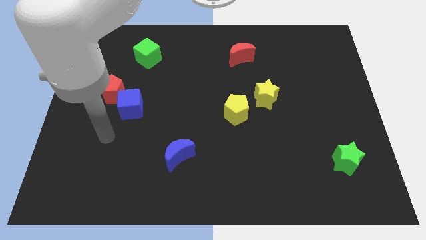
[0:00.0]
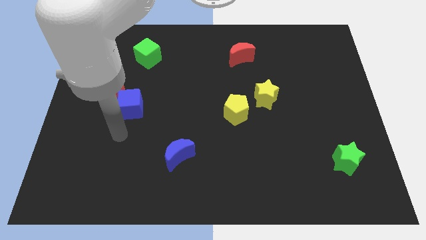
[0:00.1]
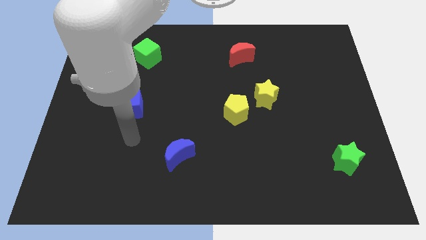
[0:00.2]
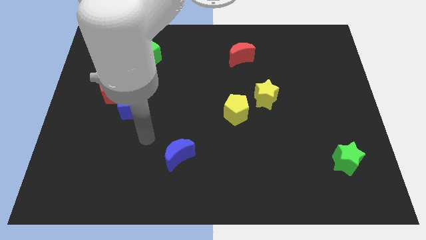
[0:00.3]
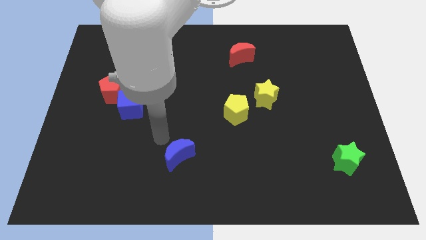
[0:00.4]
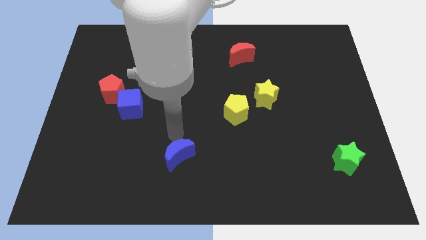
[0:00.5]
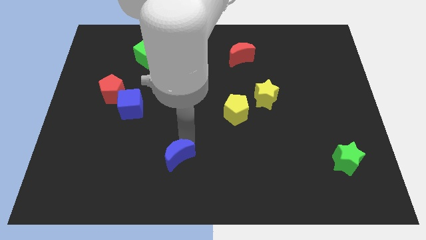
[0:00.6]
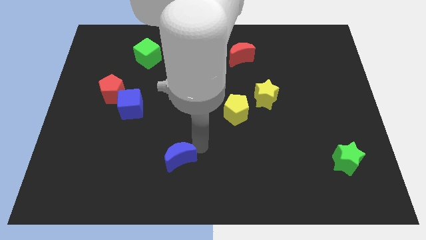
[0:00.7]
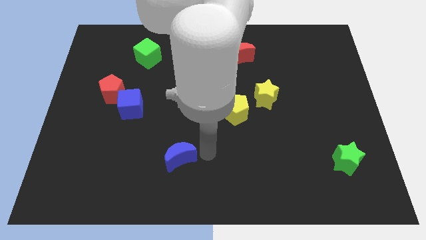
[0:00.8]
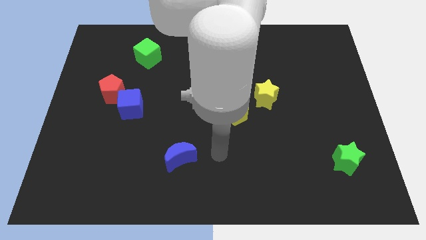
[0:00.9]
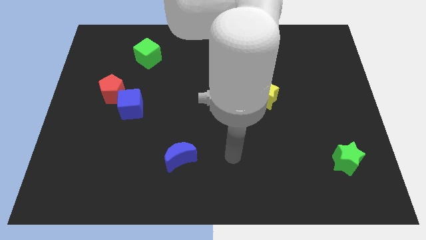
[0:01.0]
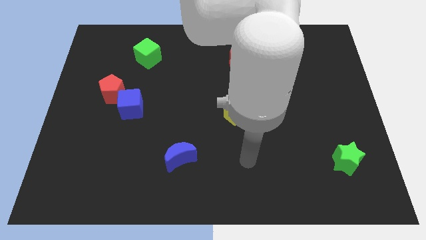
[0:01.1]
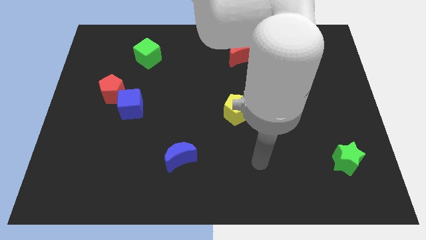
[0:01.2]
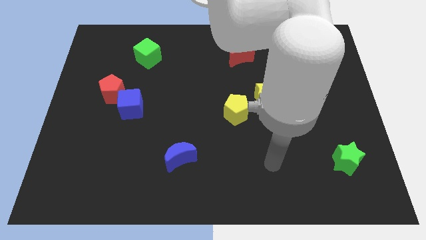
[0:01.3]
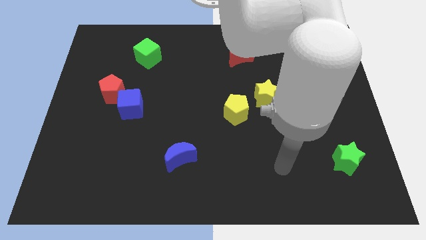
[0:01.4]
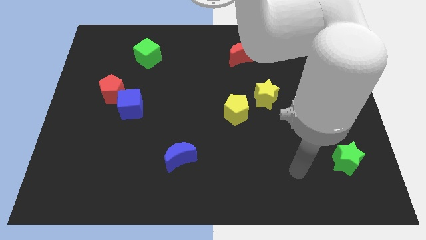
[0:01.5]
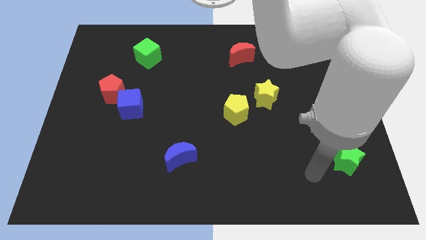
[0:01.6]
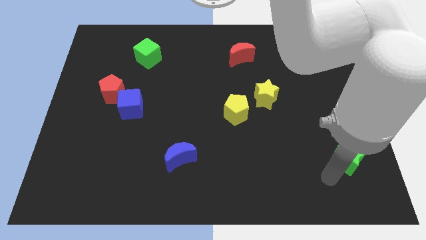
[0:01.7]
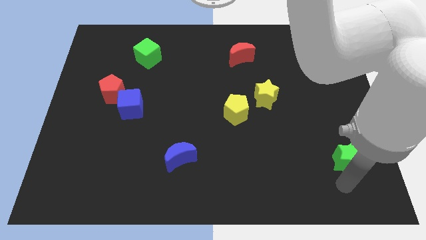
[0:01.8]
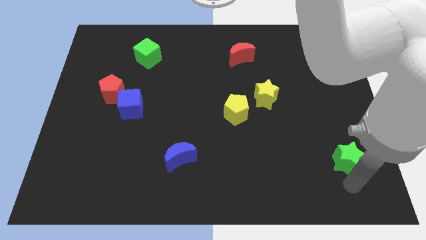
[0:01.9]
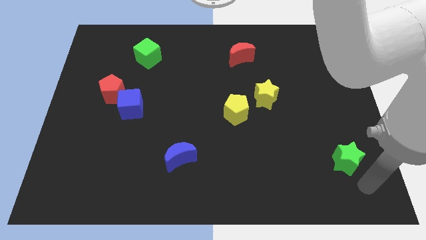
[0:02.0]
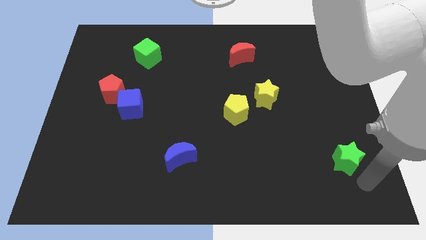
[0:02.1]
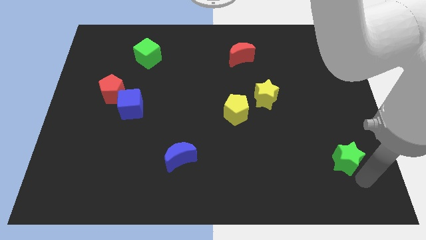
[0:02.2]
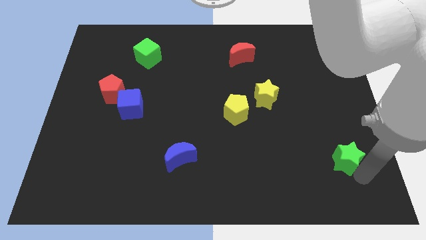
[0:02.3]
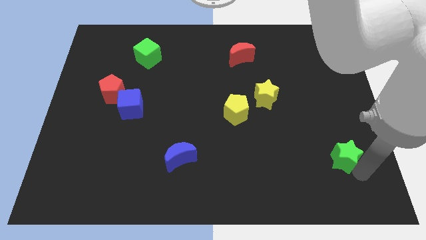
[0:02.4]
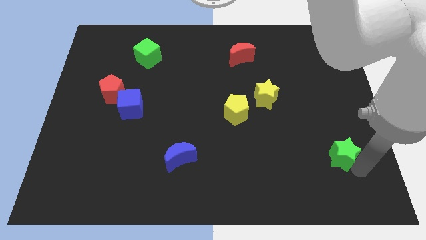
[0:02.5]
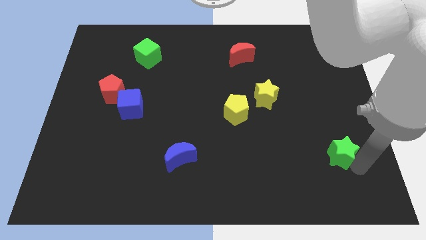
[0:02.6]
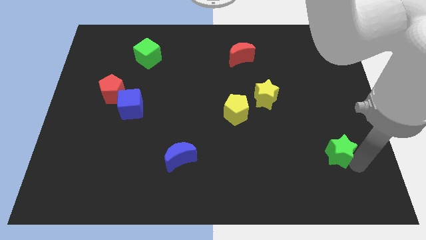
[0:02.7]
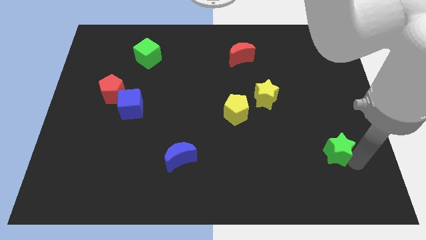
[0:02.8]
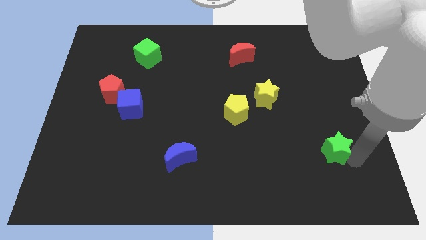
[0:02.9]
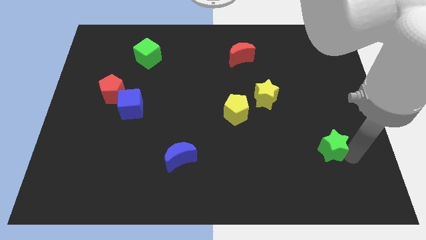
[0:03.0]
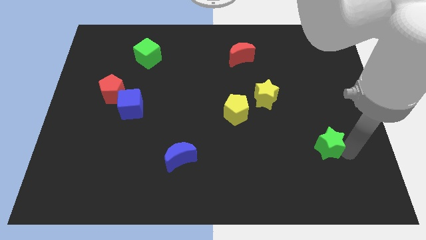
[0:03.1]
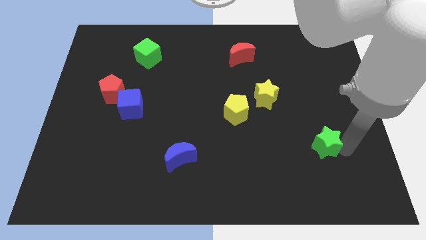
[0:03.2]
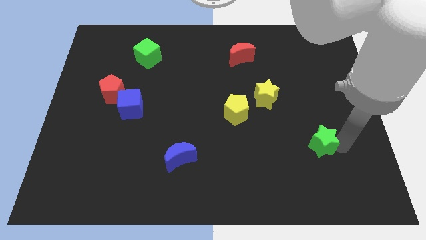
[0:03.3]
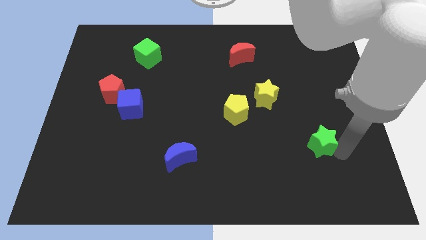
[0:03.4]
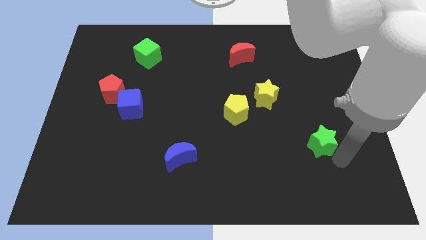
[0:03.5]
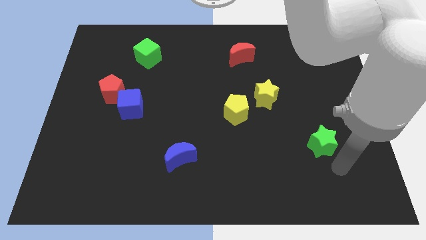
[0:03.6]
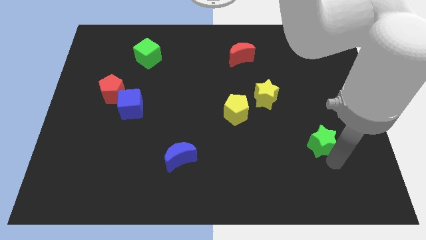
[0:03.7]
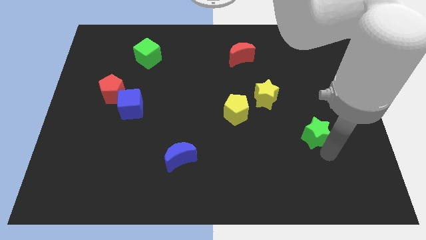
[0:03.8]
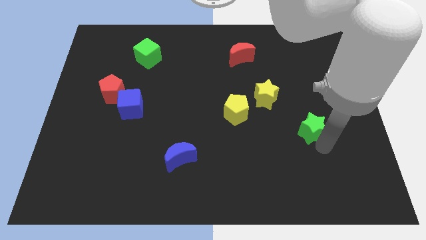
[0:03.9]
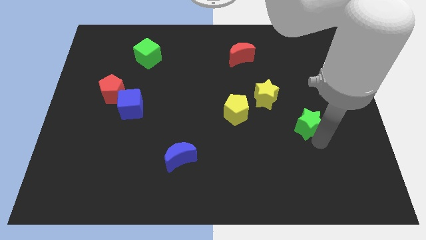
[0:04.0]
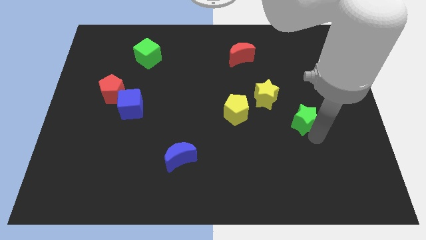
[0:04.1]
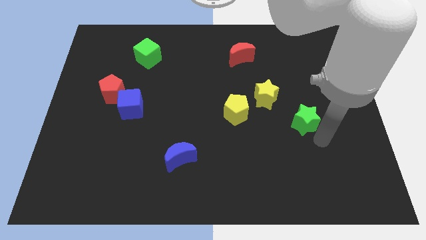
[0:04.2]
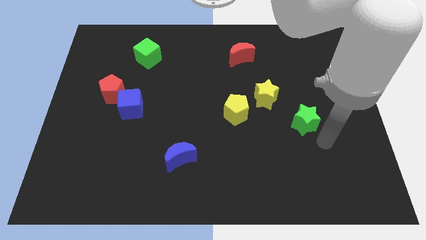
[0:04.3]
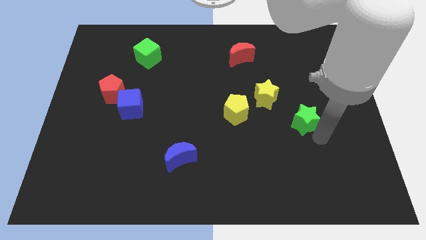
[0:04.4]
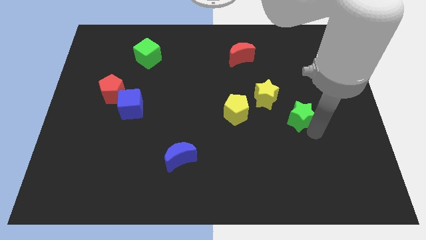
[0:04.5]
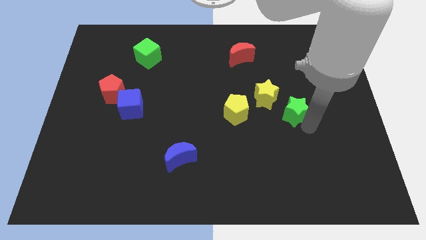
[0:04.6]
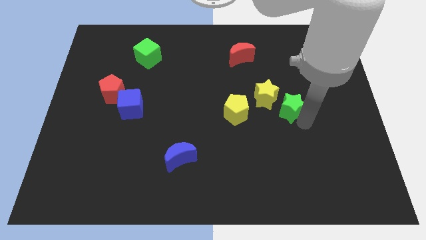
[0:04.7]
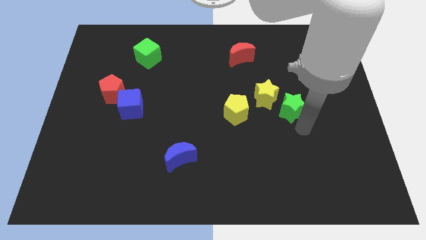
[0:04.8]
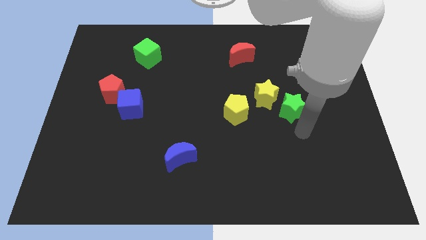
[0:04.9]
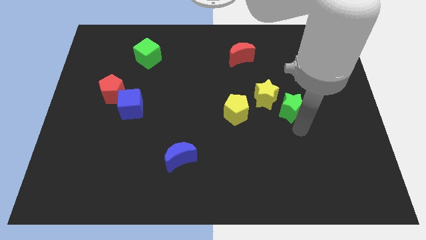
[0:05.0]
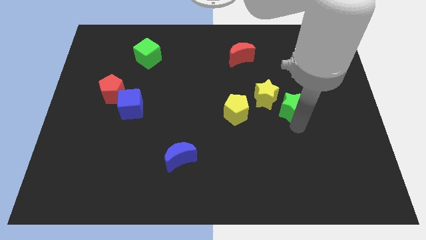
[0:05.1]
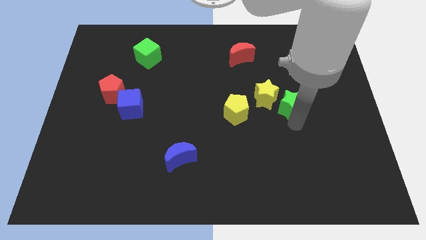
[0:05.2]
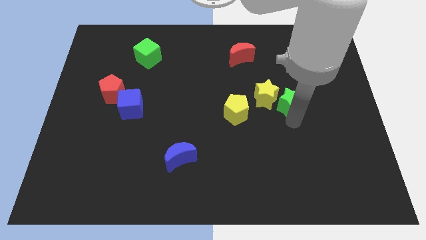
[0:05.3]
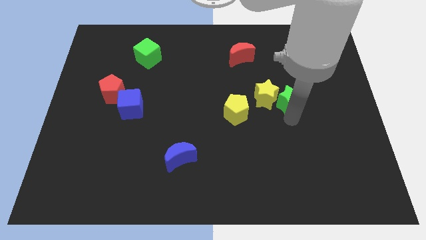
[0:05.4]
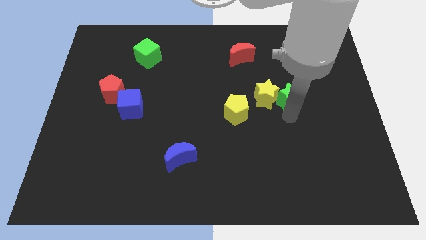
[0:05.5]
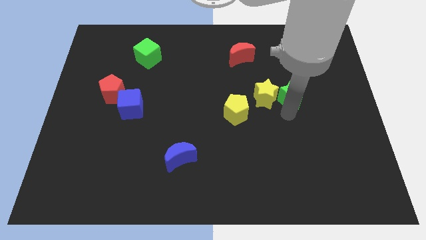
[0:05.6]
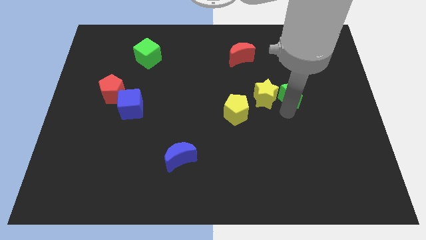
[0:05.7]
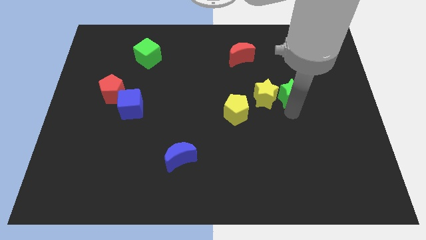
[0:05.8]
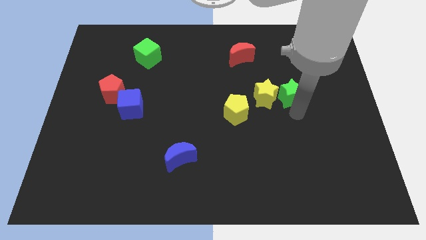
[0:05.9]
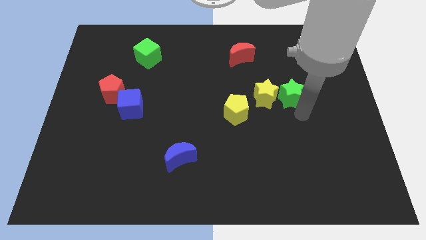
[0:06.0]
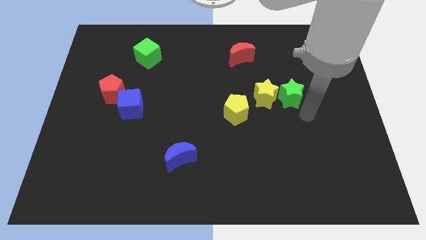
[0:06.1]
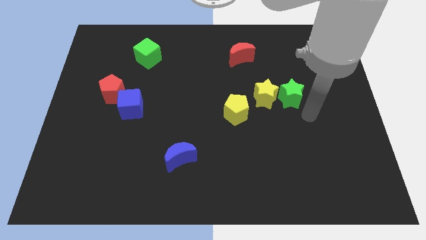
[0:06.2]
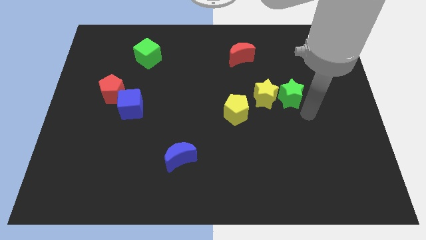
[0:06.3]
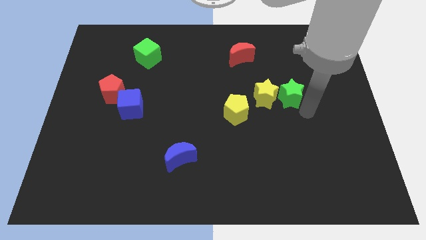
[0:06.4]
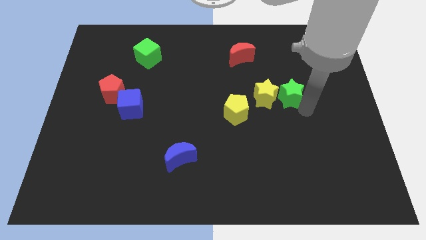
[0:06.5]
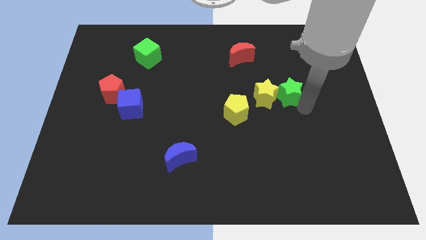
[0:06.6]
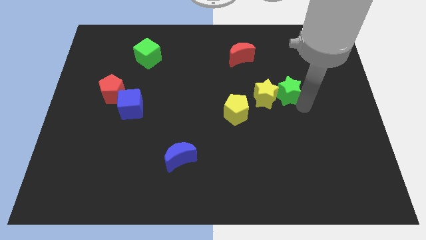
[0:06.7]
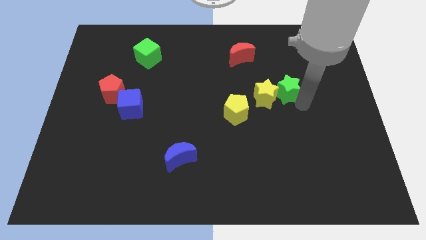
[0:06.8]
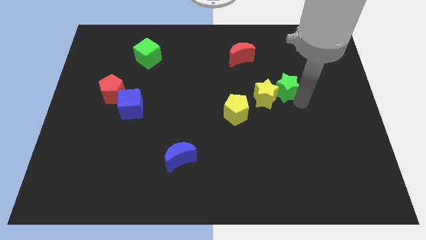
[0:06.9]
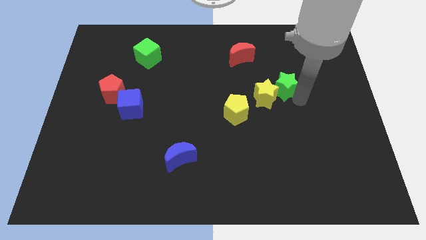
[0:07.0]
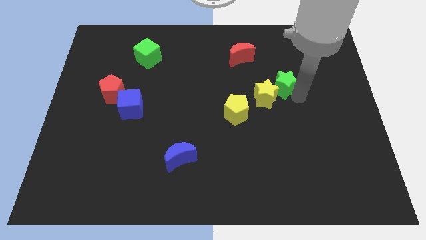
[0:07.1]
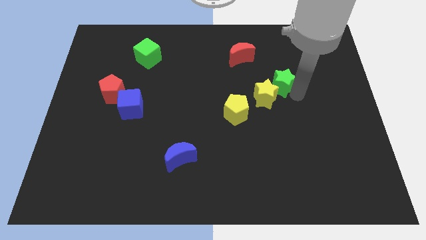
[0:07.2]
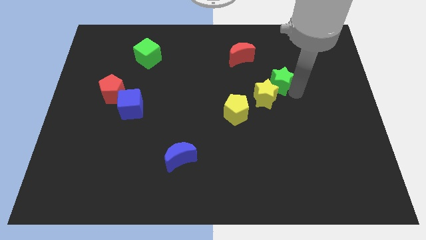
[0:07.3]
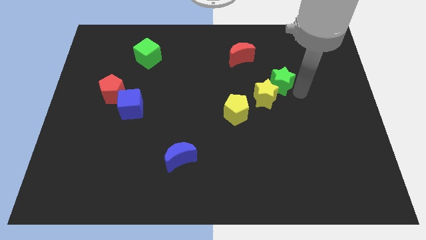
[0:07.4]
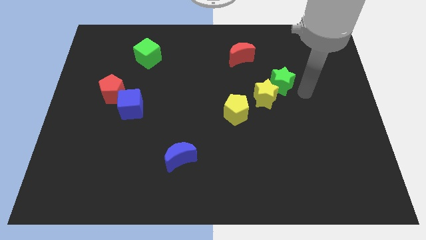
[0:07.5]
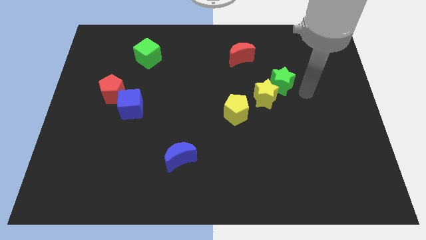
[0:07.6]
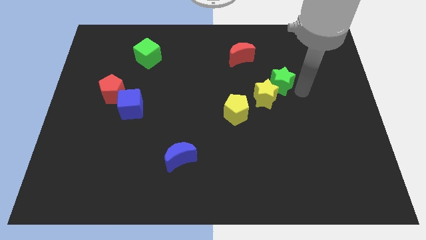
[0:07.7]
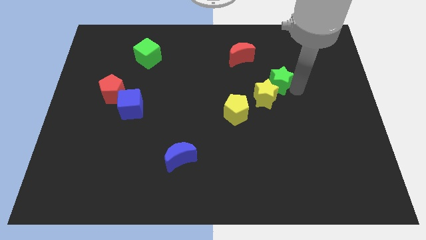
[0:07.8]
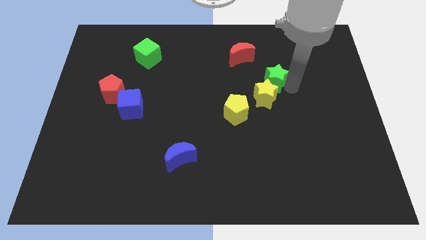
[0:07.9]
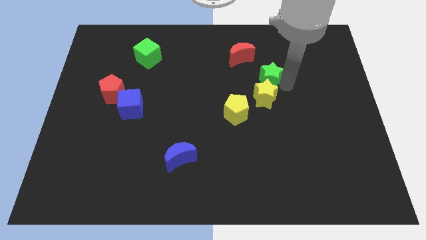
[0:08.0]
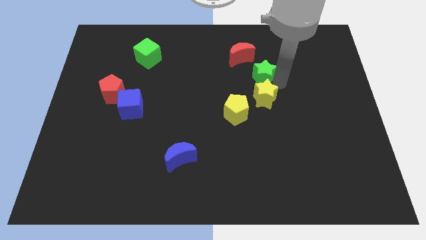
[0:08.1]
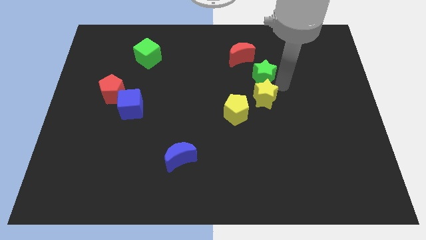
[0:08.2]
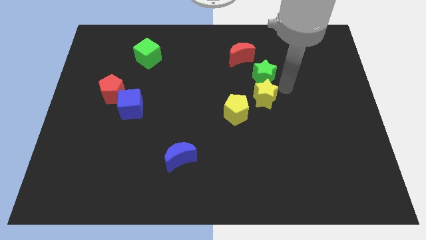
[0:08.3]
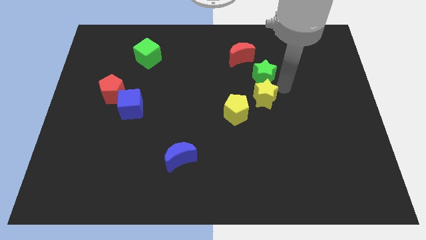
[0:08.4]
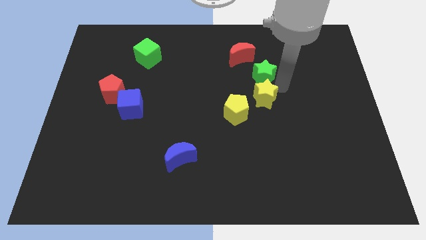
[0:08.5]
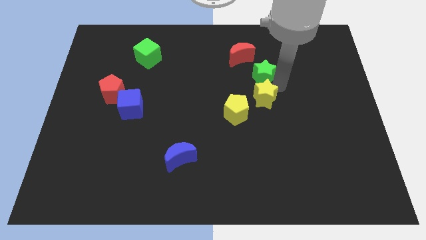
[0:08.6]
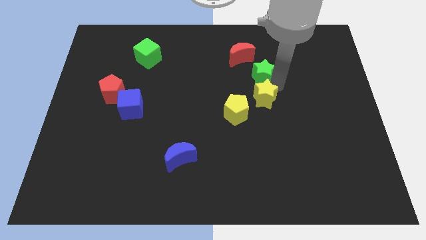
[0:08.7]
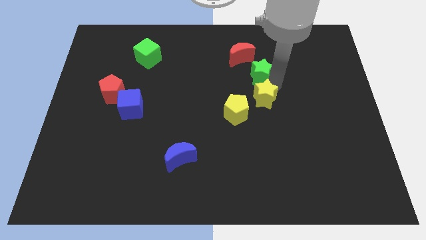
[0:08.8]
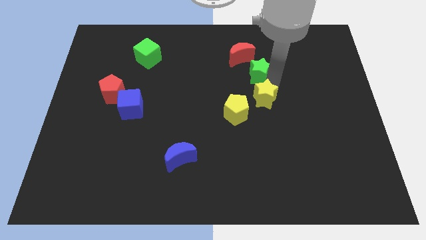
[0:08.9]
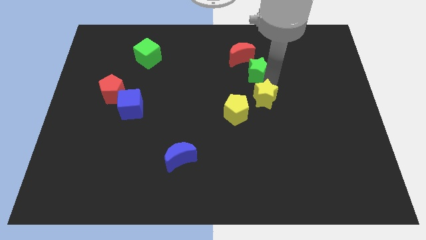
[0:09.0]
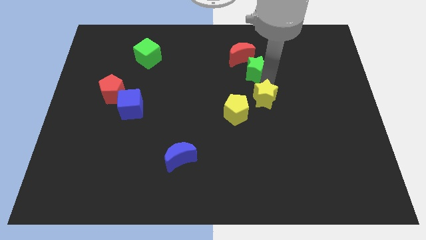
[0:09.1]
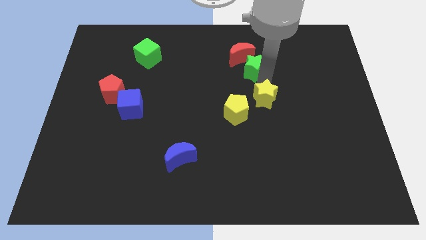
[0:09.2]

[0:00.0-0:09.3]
move the green star next to the red moon
